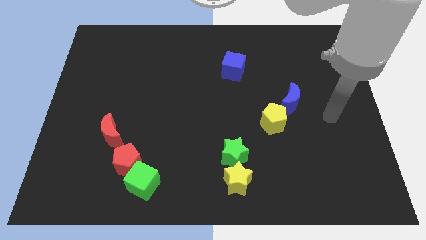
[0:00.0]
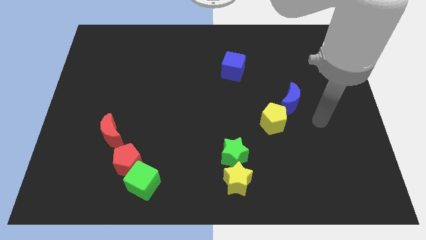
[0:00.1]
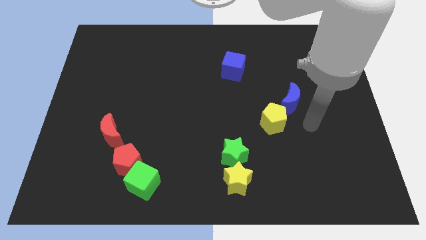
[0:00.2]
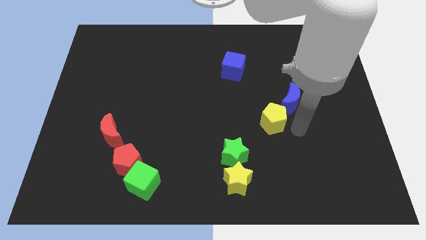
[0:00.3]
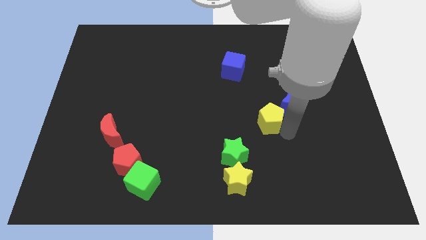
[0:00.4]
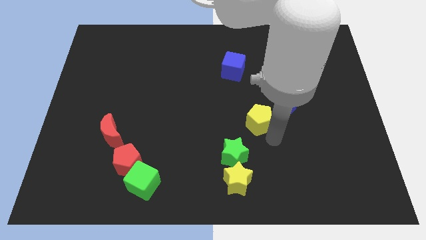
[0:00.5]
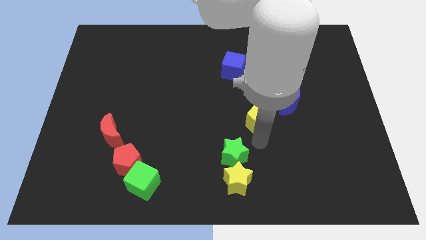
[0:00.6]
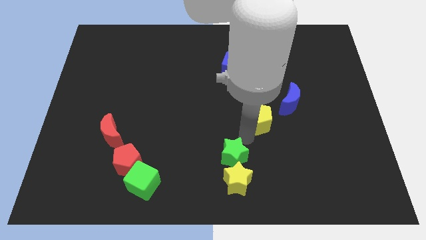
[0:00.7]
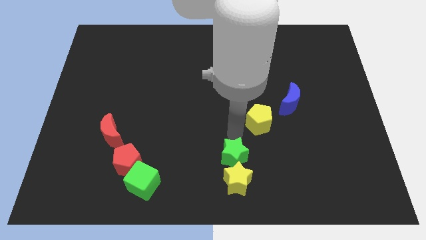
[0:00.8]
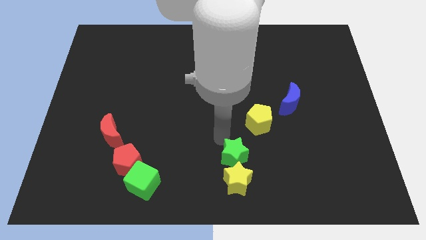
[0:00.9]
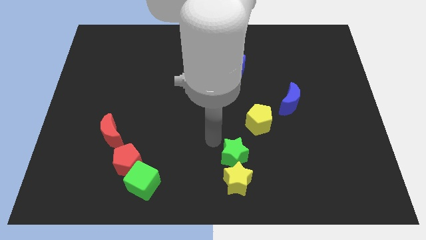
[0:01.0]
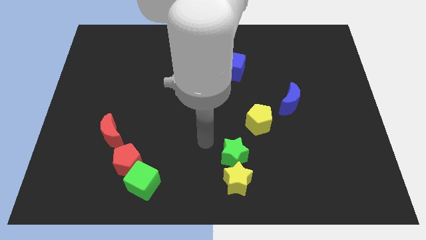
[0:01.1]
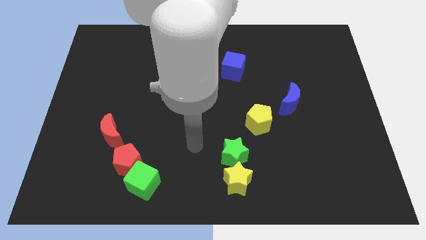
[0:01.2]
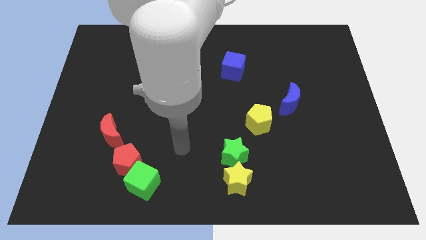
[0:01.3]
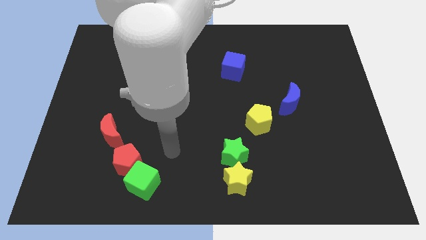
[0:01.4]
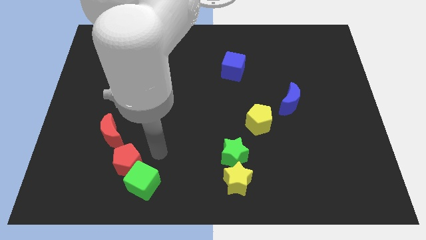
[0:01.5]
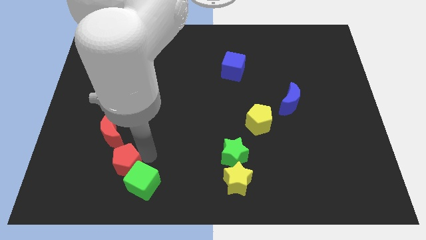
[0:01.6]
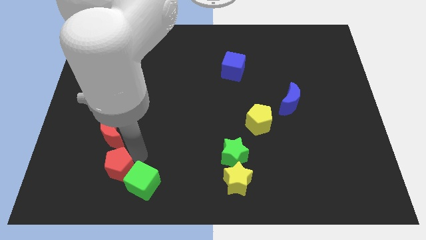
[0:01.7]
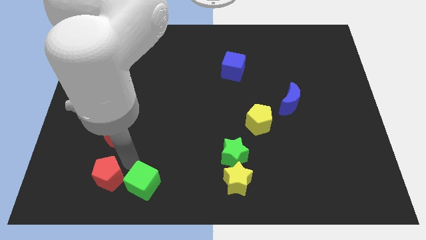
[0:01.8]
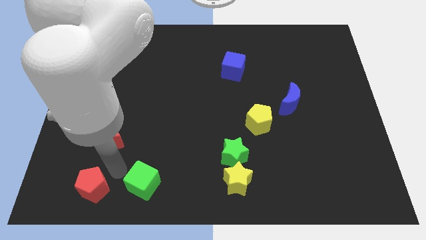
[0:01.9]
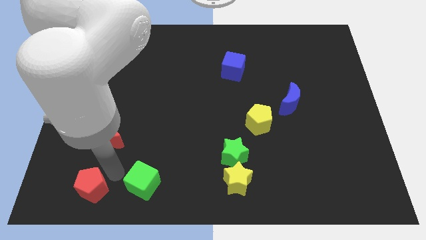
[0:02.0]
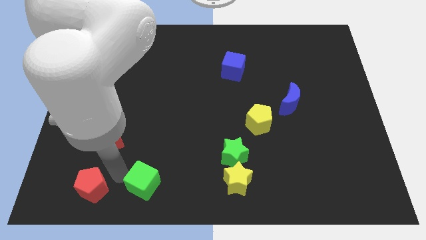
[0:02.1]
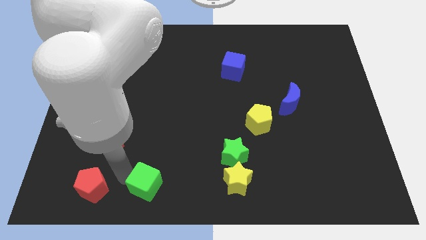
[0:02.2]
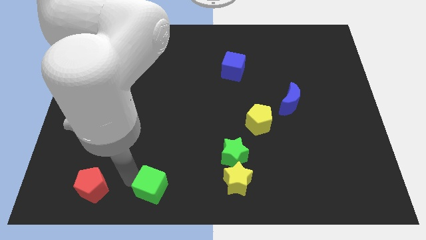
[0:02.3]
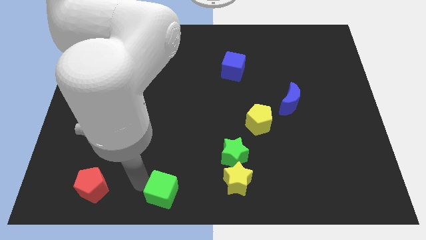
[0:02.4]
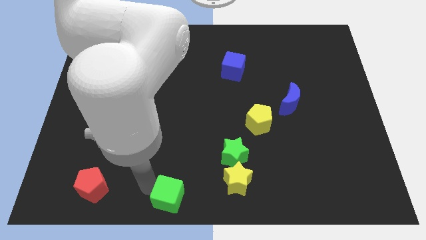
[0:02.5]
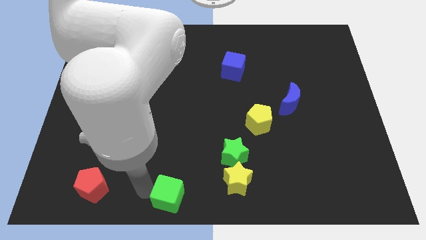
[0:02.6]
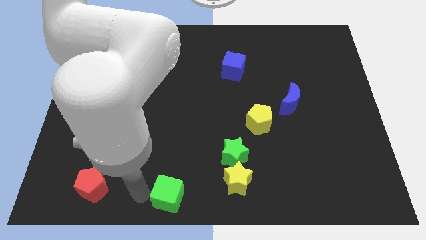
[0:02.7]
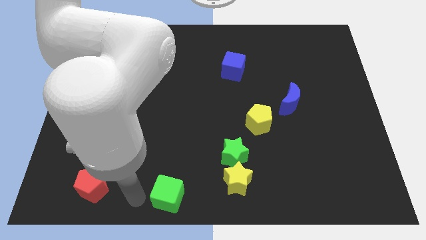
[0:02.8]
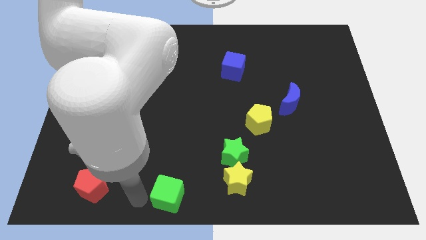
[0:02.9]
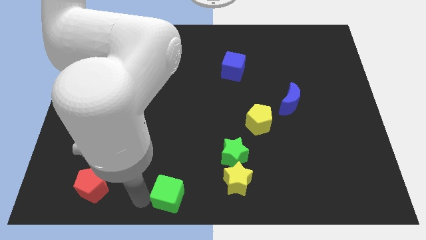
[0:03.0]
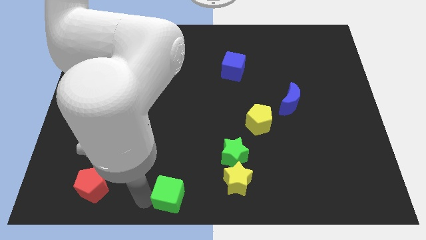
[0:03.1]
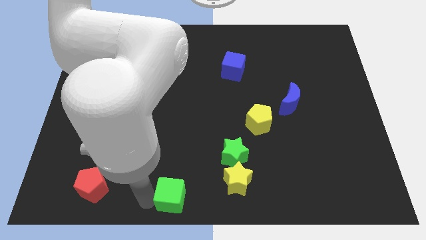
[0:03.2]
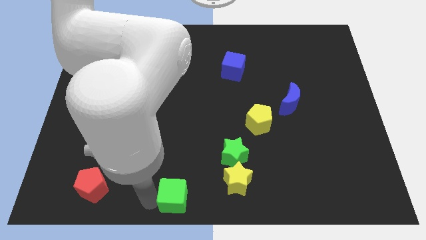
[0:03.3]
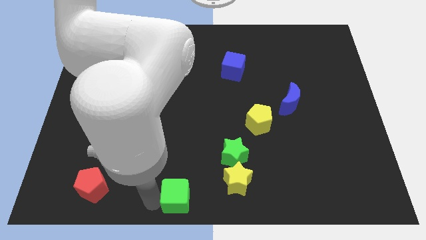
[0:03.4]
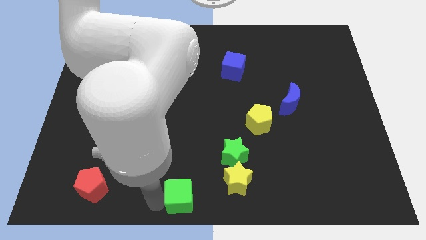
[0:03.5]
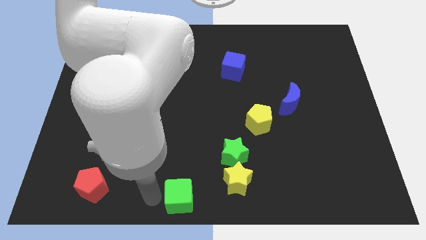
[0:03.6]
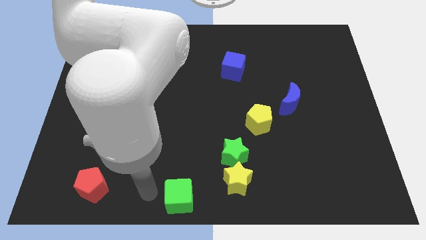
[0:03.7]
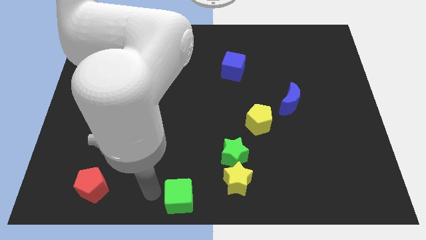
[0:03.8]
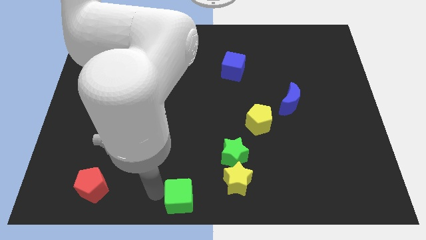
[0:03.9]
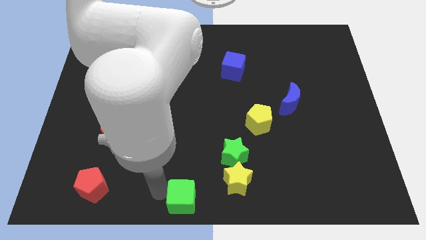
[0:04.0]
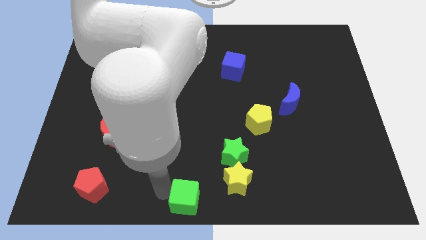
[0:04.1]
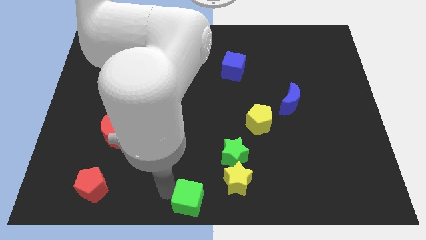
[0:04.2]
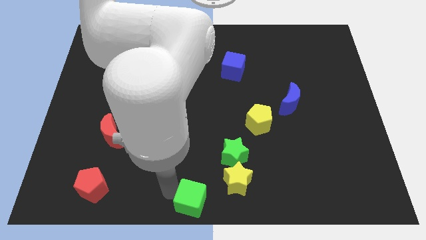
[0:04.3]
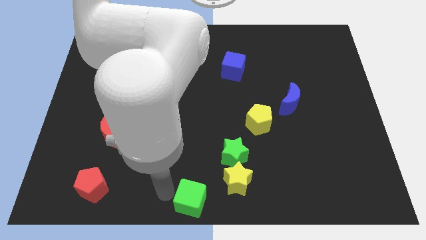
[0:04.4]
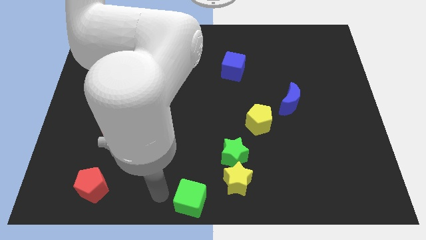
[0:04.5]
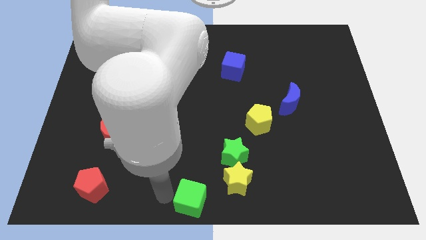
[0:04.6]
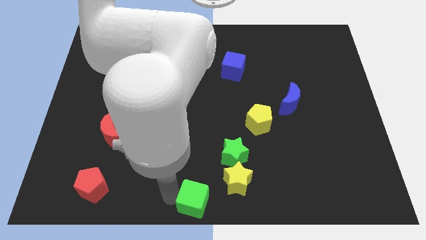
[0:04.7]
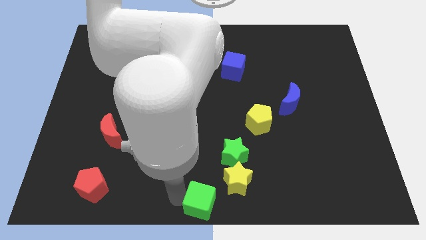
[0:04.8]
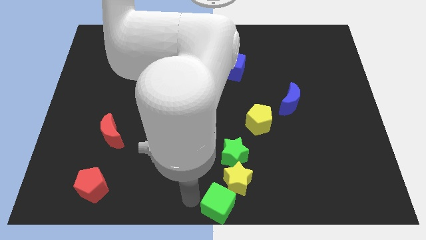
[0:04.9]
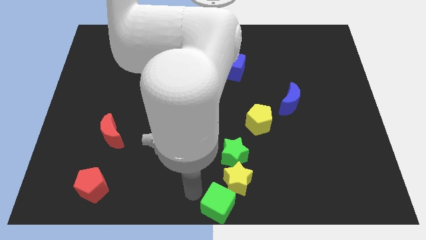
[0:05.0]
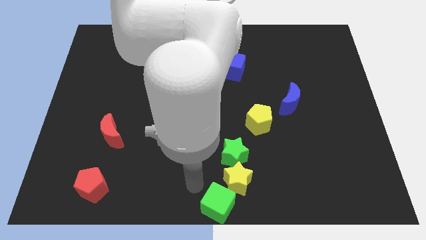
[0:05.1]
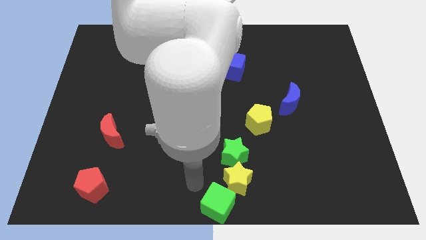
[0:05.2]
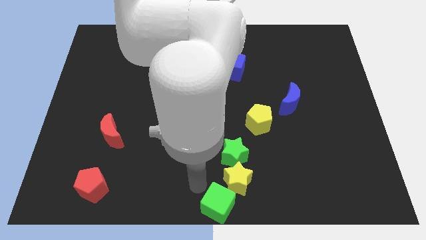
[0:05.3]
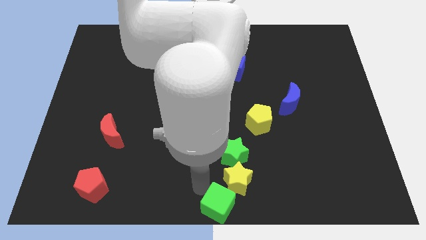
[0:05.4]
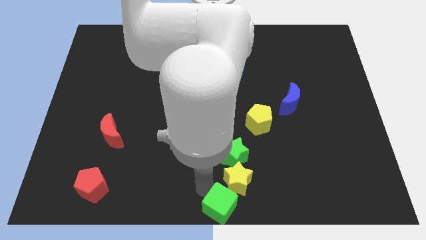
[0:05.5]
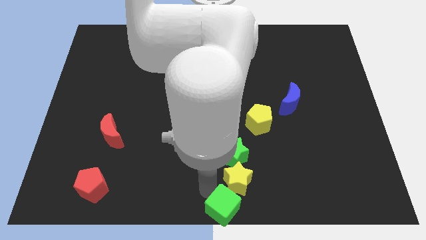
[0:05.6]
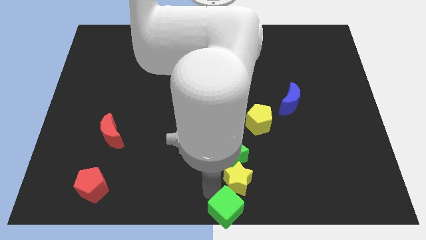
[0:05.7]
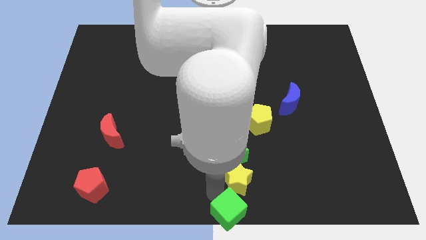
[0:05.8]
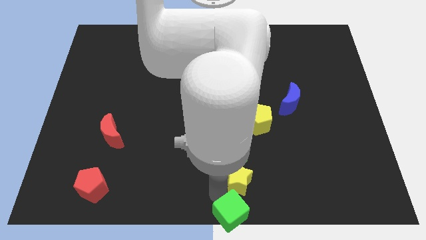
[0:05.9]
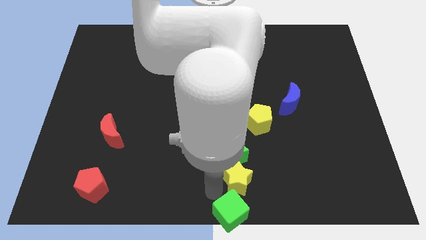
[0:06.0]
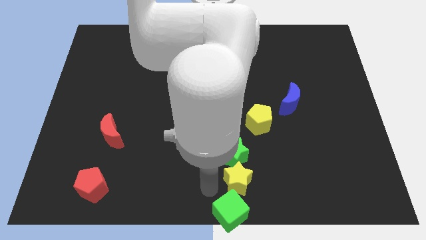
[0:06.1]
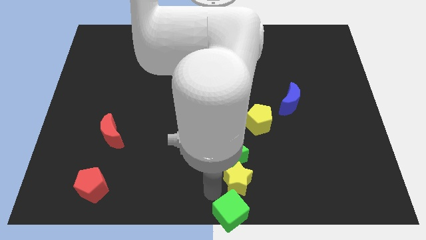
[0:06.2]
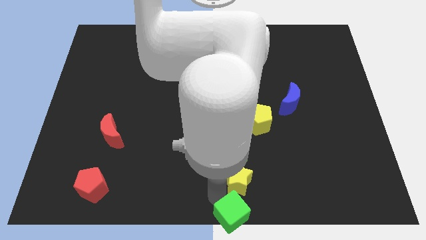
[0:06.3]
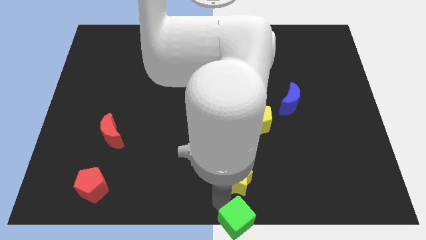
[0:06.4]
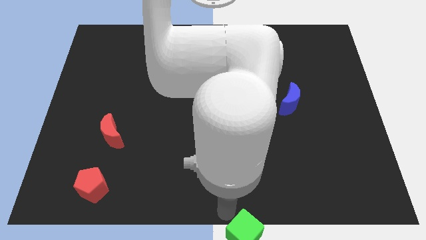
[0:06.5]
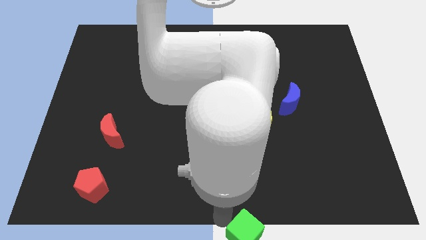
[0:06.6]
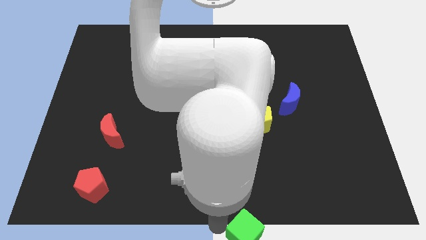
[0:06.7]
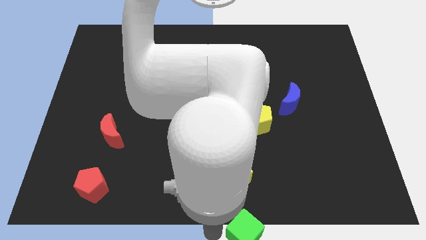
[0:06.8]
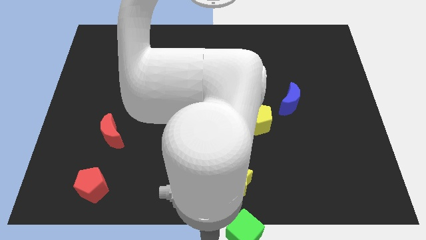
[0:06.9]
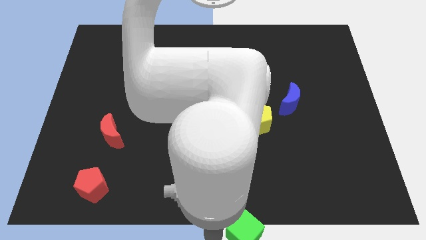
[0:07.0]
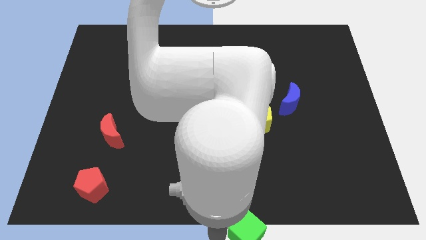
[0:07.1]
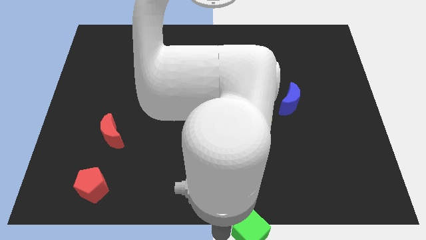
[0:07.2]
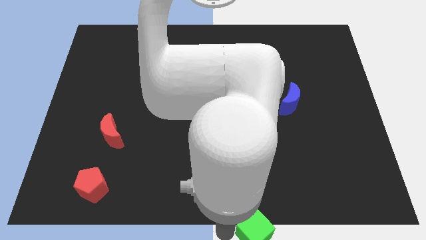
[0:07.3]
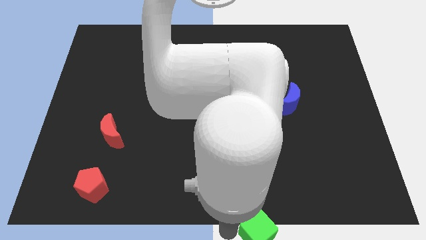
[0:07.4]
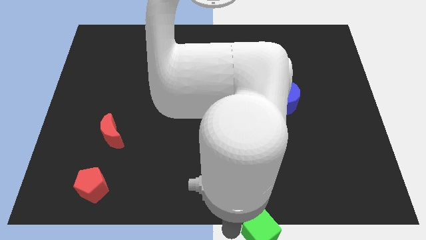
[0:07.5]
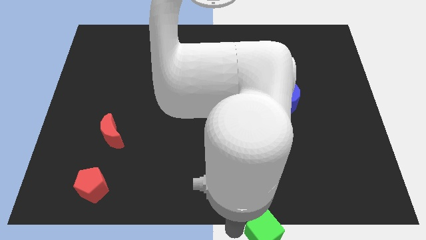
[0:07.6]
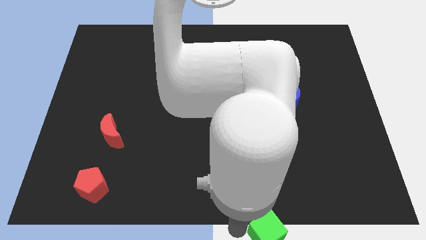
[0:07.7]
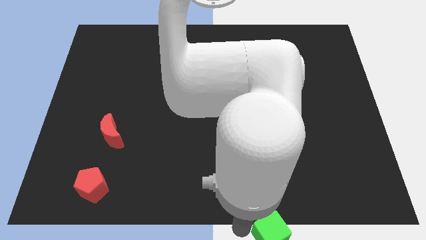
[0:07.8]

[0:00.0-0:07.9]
slide the green cube right
